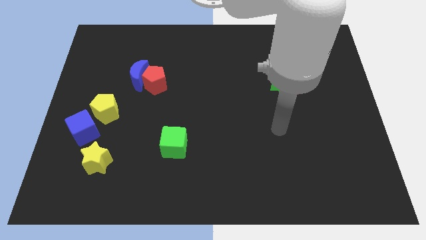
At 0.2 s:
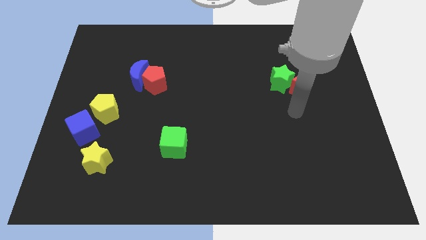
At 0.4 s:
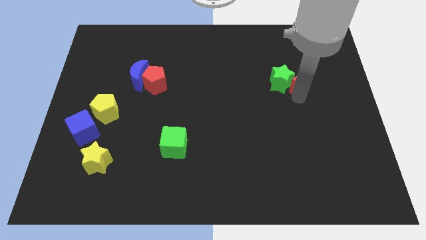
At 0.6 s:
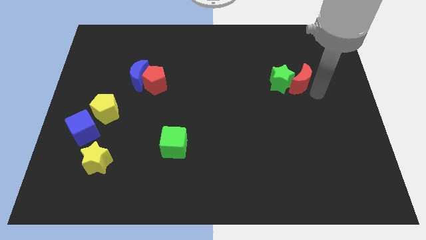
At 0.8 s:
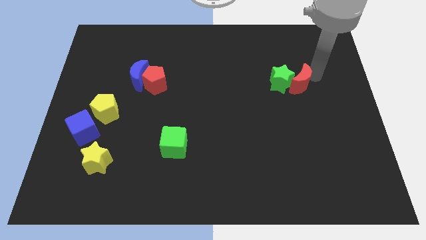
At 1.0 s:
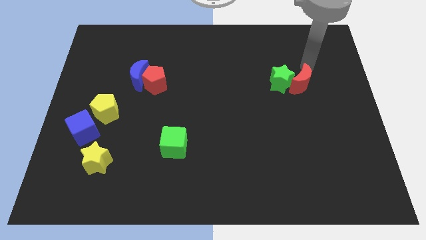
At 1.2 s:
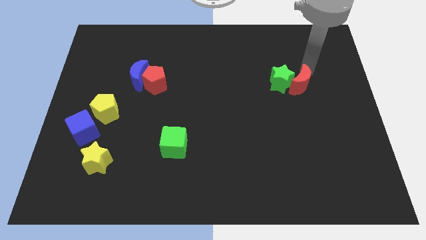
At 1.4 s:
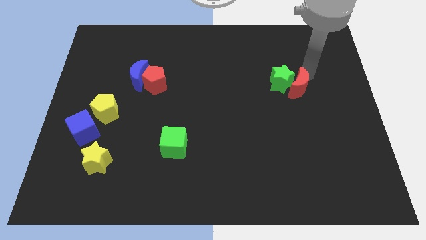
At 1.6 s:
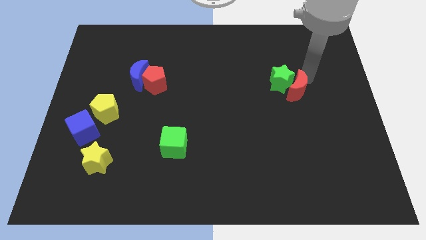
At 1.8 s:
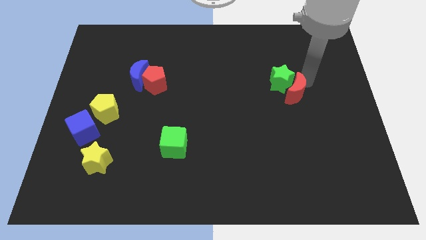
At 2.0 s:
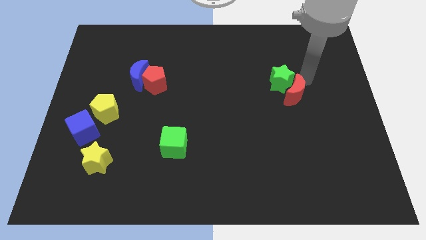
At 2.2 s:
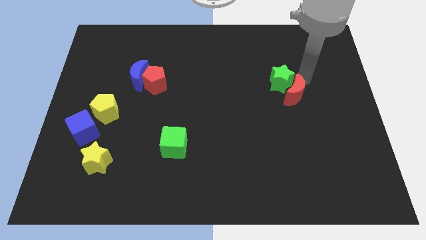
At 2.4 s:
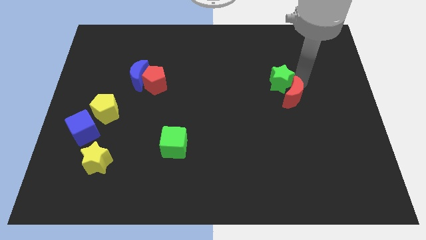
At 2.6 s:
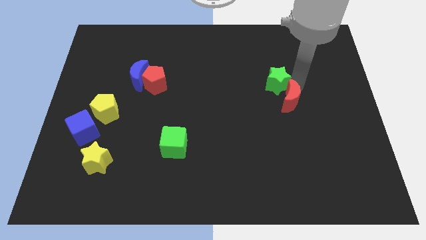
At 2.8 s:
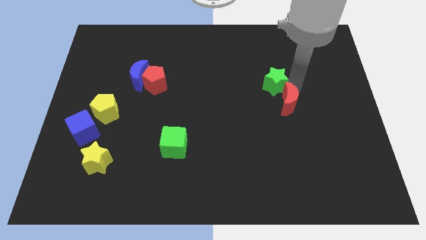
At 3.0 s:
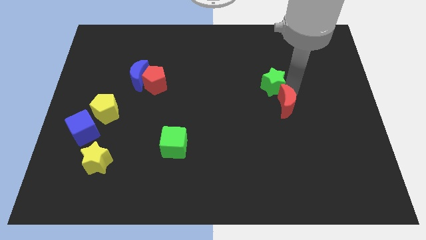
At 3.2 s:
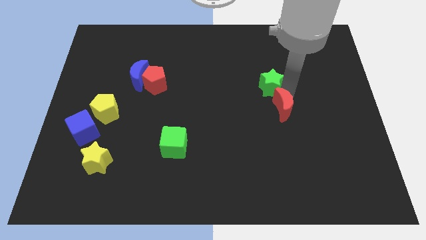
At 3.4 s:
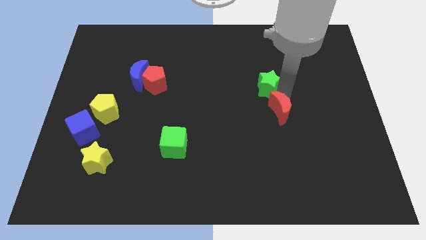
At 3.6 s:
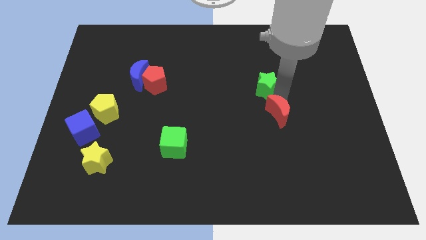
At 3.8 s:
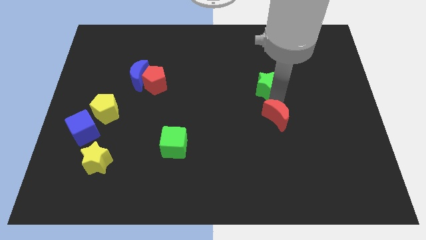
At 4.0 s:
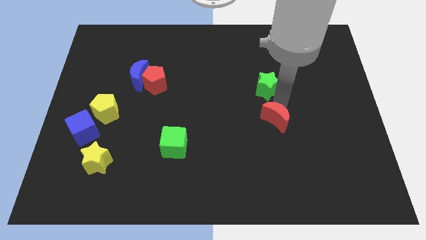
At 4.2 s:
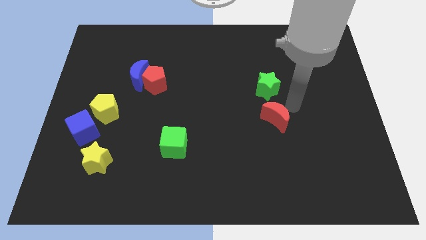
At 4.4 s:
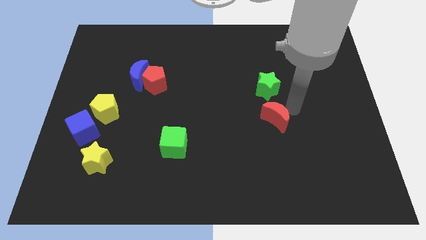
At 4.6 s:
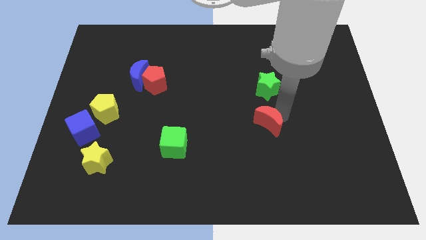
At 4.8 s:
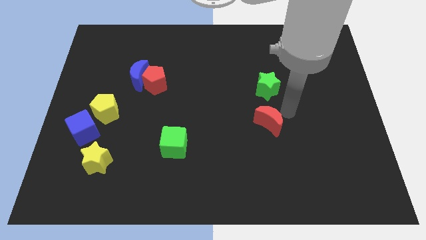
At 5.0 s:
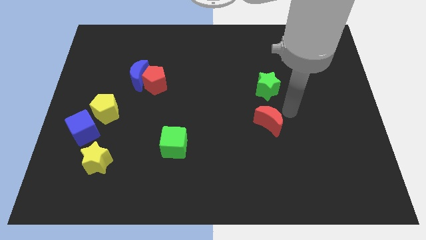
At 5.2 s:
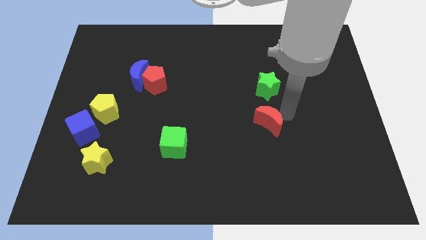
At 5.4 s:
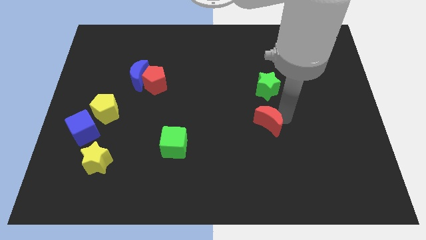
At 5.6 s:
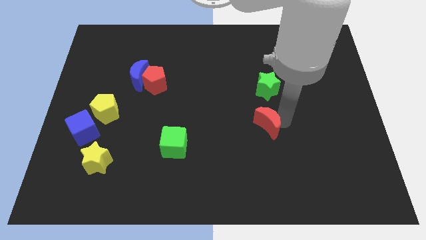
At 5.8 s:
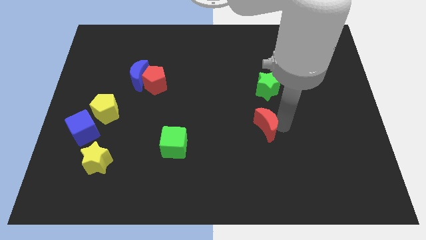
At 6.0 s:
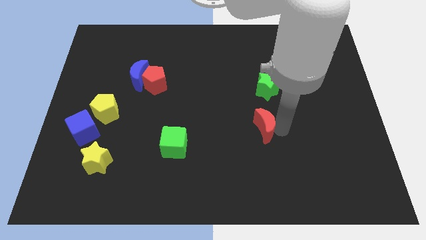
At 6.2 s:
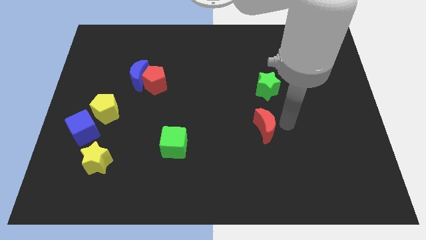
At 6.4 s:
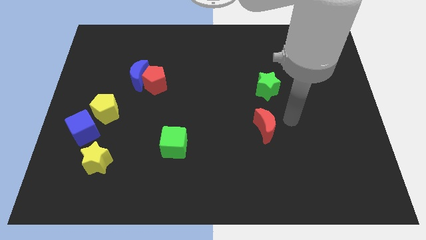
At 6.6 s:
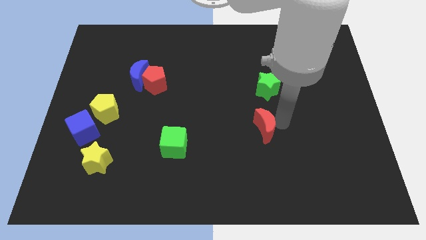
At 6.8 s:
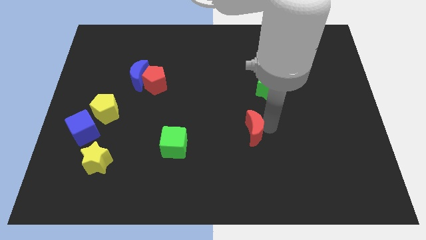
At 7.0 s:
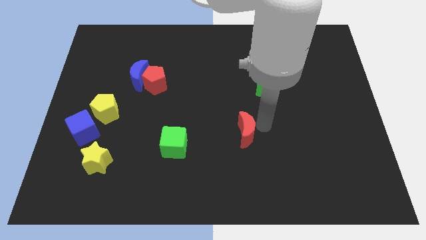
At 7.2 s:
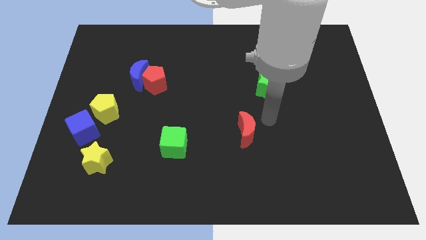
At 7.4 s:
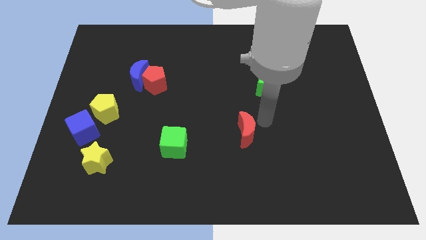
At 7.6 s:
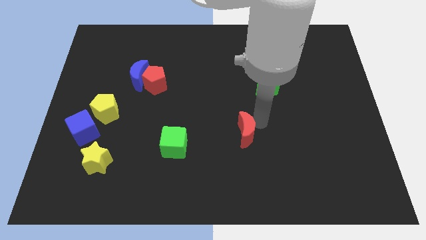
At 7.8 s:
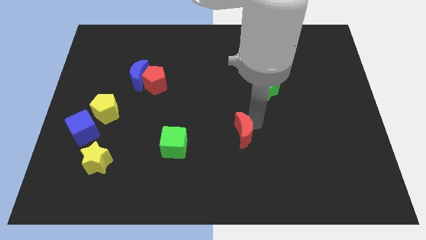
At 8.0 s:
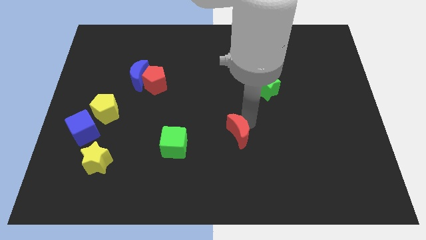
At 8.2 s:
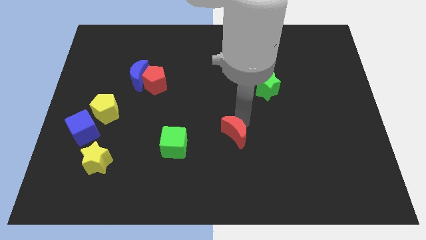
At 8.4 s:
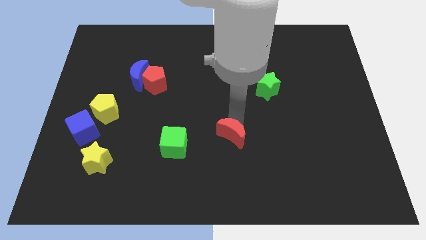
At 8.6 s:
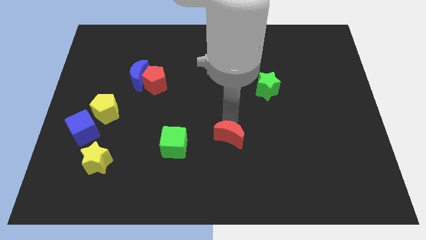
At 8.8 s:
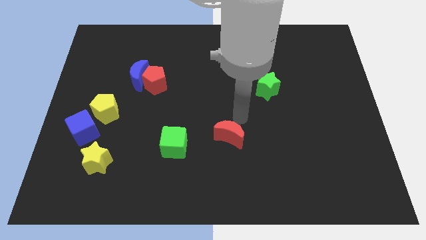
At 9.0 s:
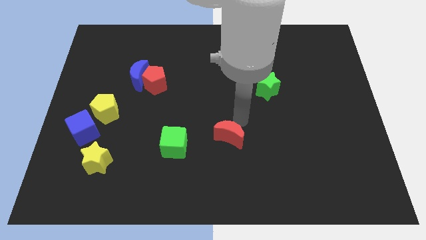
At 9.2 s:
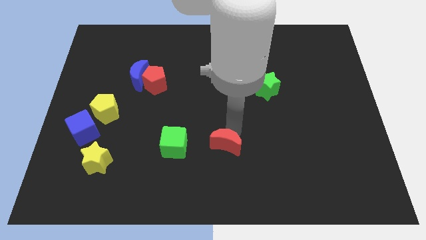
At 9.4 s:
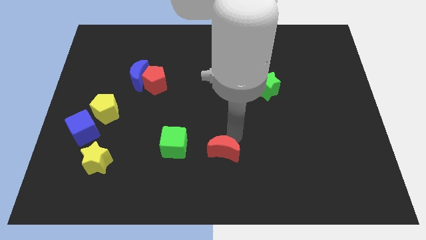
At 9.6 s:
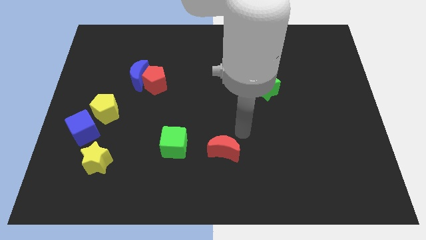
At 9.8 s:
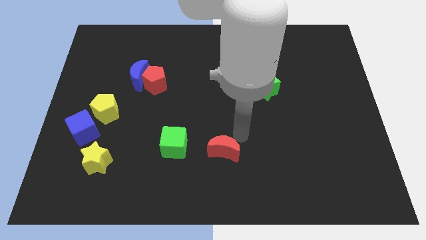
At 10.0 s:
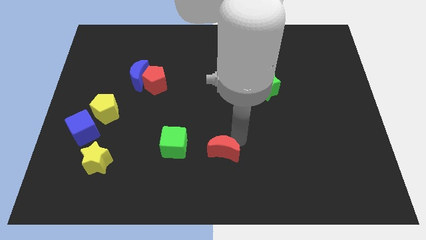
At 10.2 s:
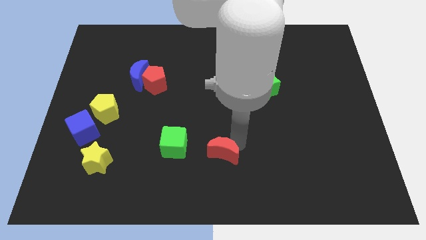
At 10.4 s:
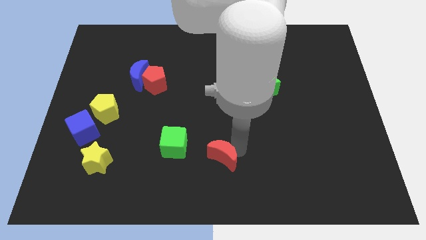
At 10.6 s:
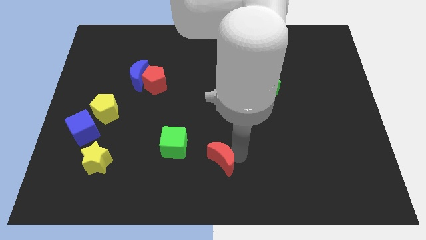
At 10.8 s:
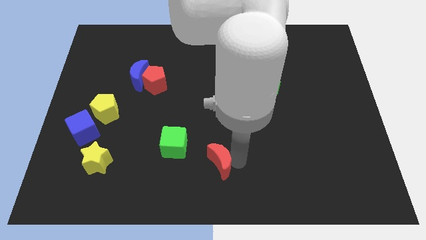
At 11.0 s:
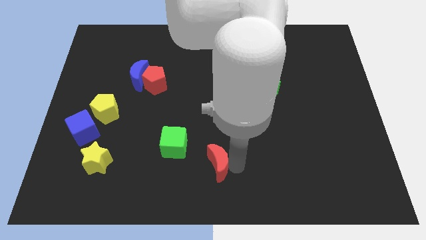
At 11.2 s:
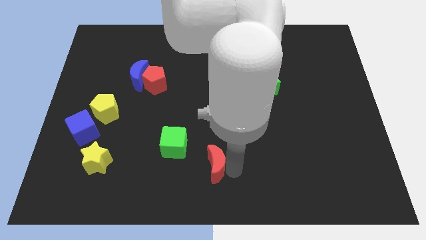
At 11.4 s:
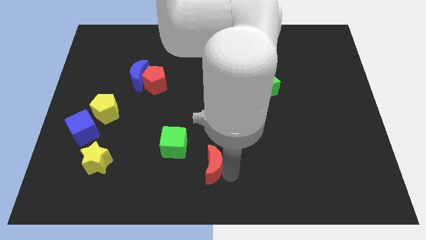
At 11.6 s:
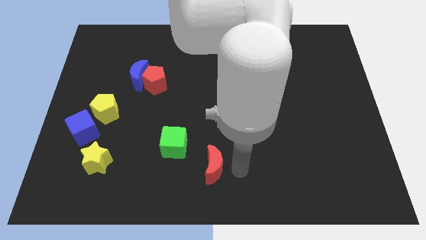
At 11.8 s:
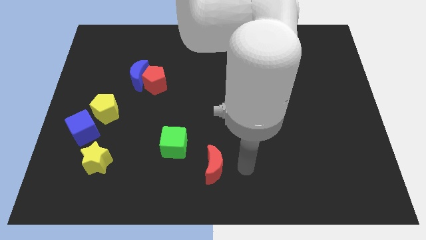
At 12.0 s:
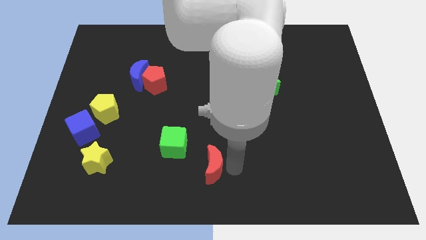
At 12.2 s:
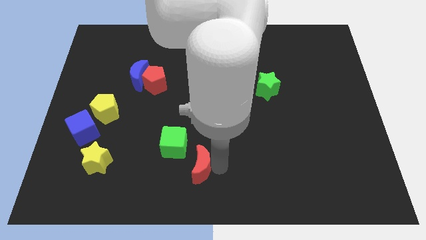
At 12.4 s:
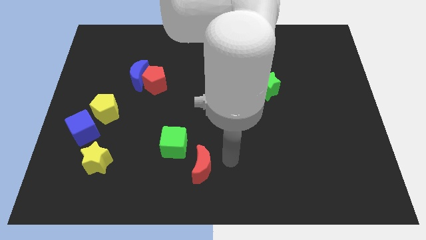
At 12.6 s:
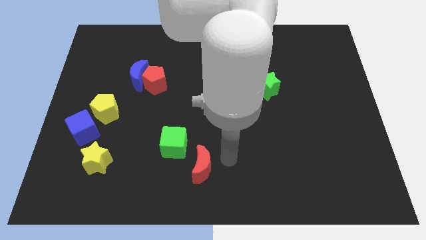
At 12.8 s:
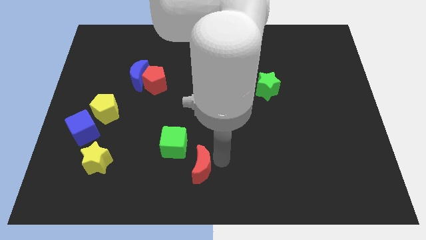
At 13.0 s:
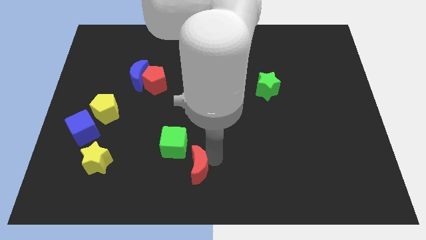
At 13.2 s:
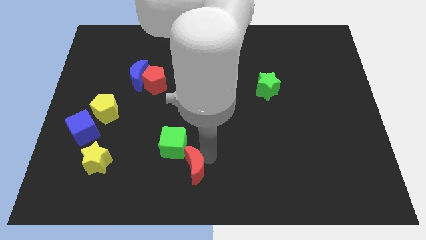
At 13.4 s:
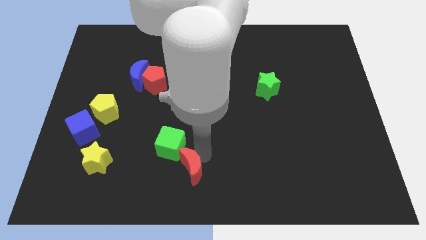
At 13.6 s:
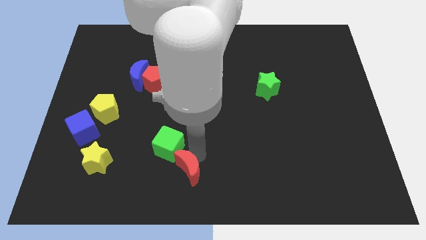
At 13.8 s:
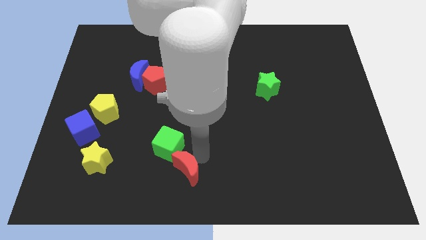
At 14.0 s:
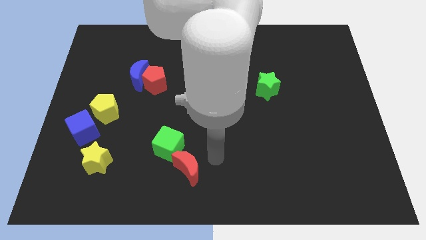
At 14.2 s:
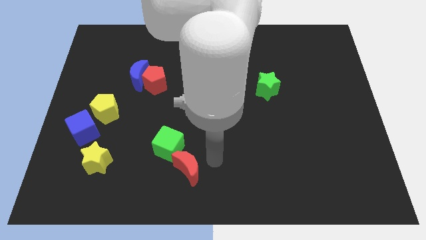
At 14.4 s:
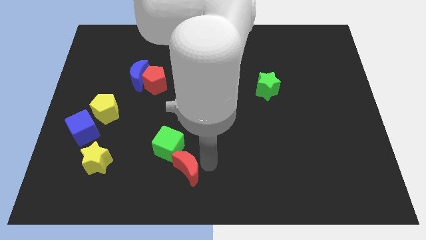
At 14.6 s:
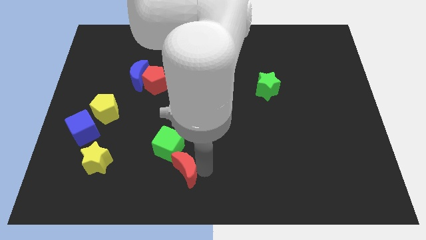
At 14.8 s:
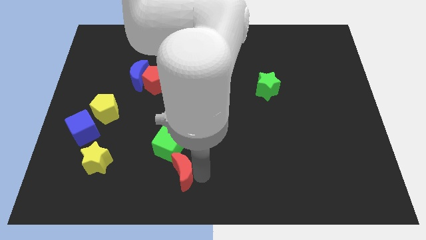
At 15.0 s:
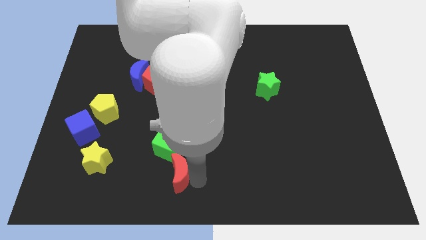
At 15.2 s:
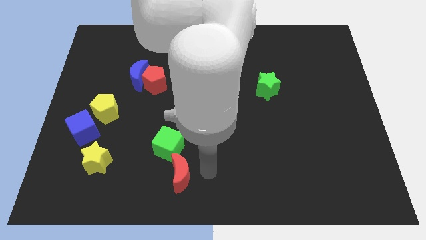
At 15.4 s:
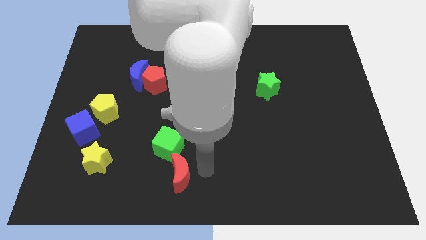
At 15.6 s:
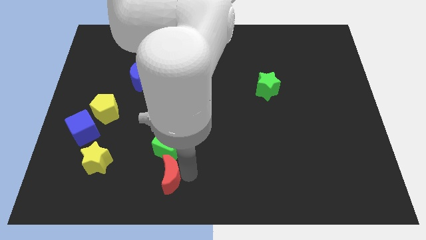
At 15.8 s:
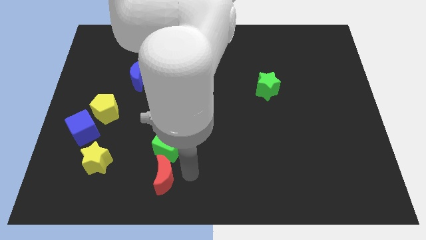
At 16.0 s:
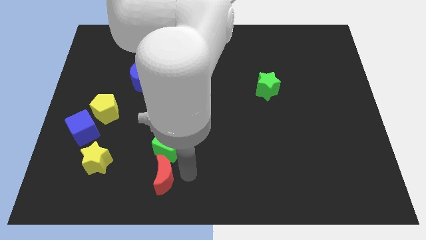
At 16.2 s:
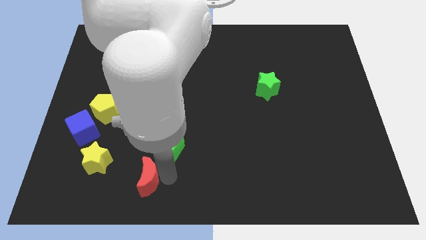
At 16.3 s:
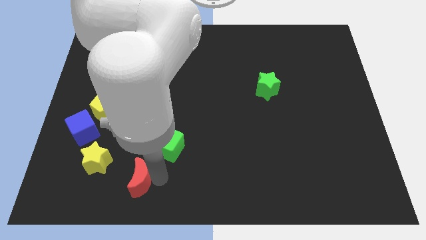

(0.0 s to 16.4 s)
put the red moon to the bottom right of the yellow star
